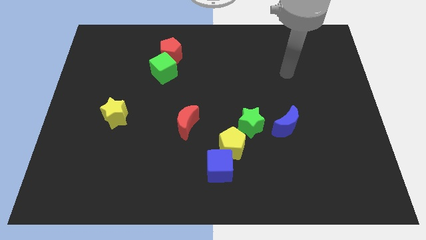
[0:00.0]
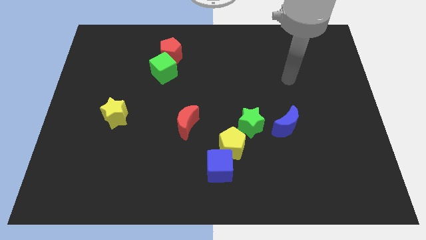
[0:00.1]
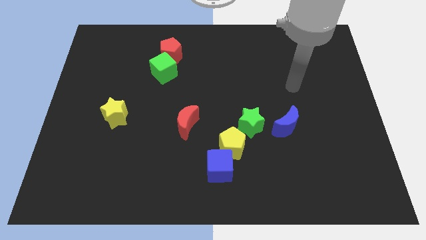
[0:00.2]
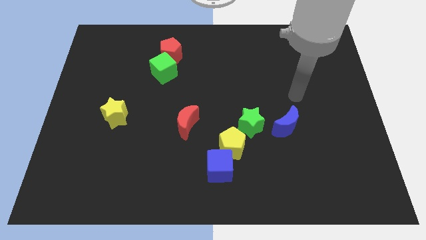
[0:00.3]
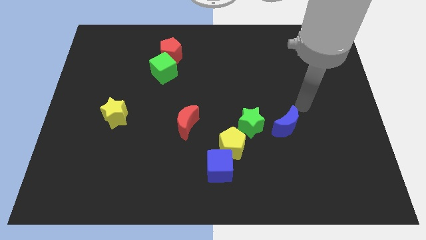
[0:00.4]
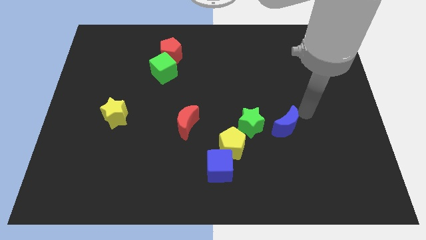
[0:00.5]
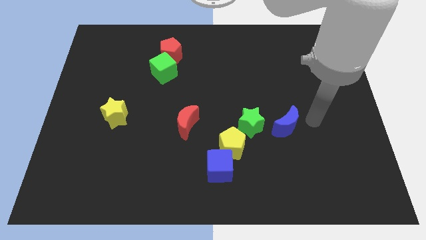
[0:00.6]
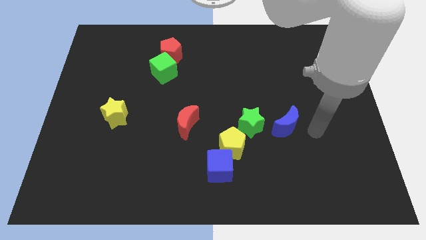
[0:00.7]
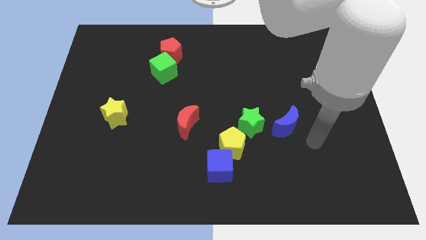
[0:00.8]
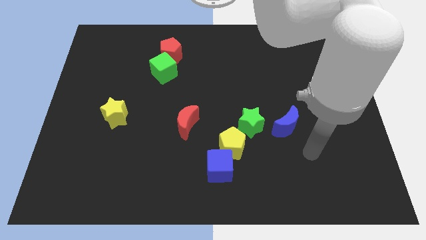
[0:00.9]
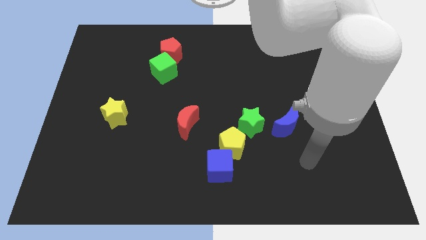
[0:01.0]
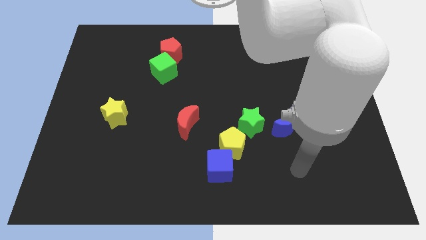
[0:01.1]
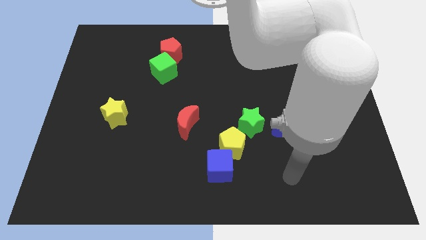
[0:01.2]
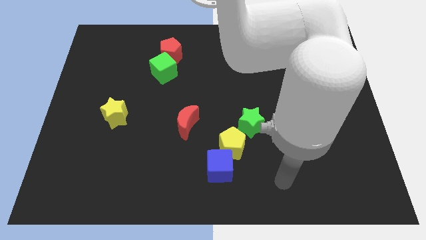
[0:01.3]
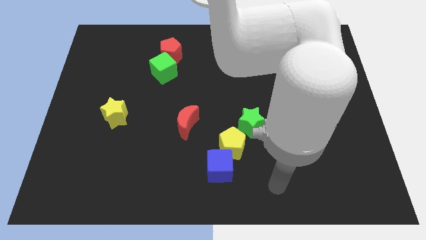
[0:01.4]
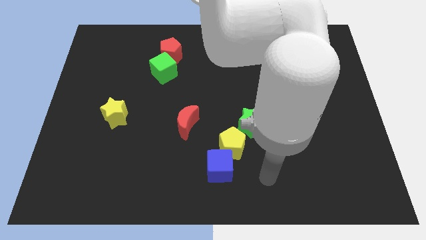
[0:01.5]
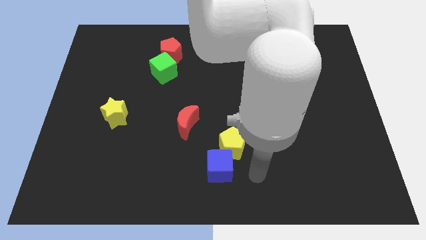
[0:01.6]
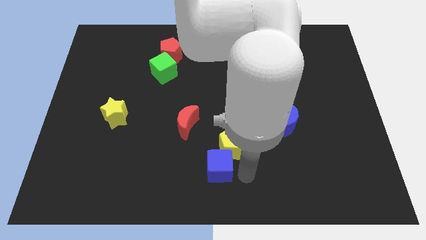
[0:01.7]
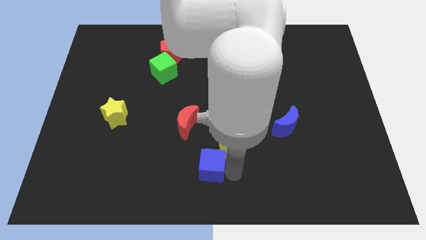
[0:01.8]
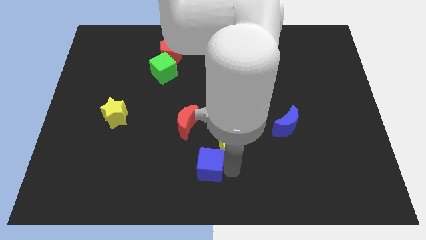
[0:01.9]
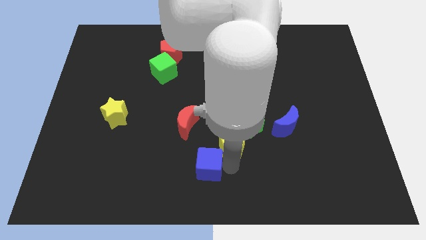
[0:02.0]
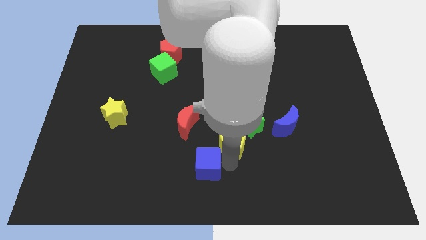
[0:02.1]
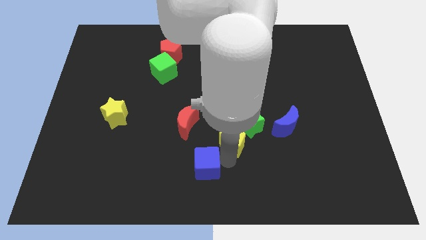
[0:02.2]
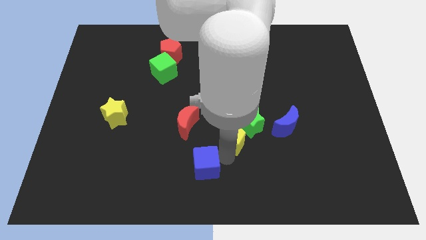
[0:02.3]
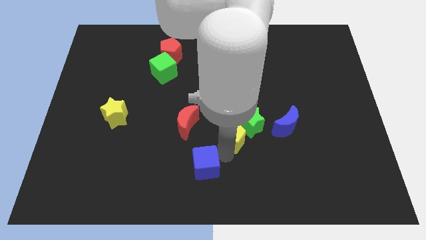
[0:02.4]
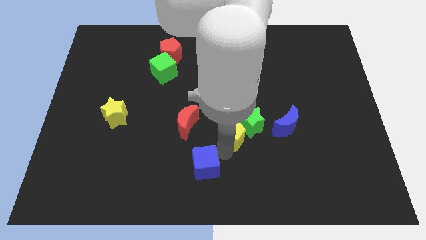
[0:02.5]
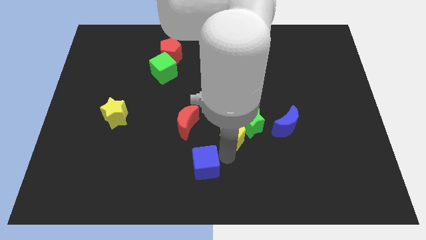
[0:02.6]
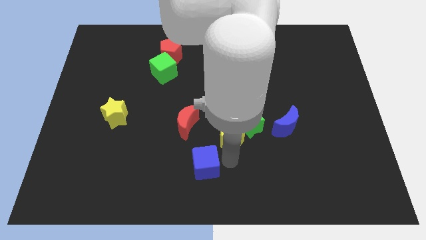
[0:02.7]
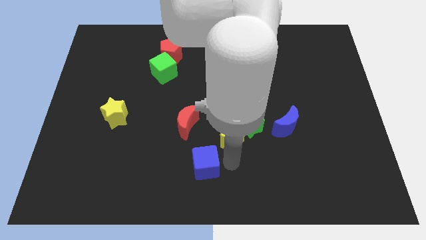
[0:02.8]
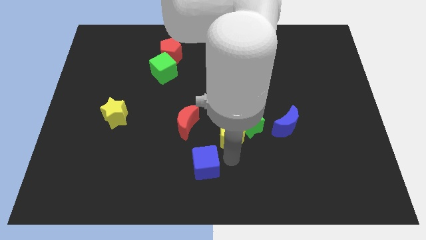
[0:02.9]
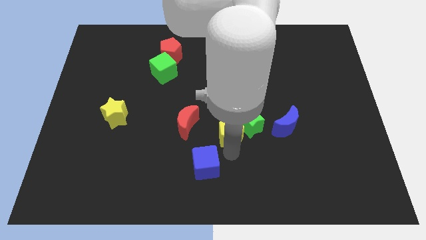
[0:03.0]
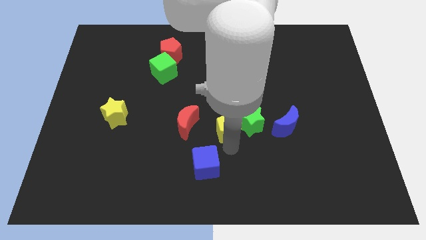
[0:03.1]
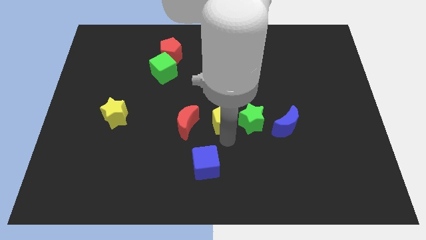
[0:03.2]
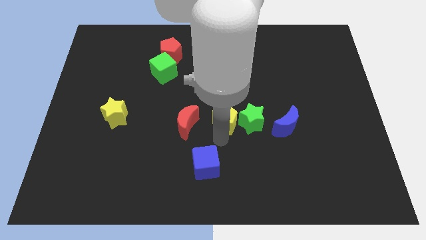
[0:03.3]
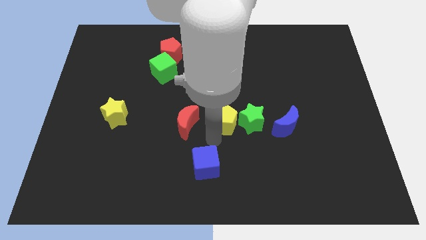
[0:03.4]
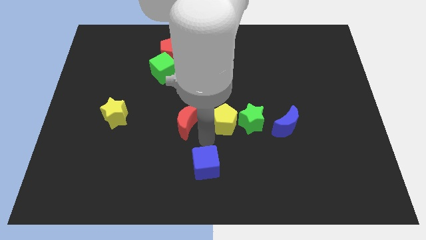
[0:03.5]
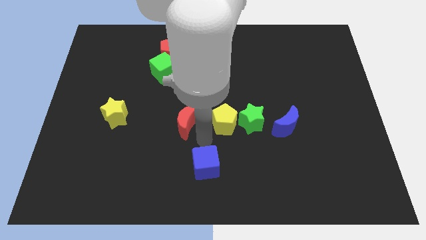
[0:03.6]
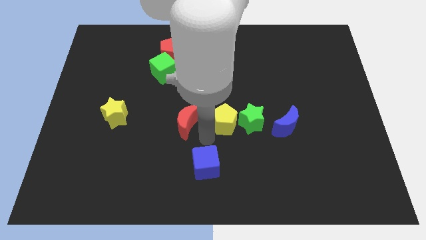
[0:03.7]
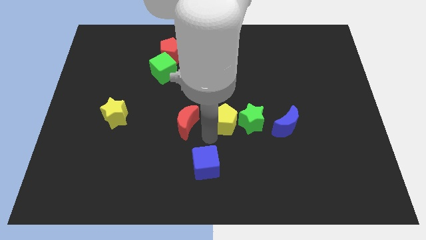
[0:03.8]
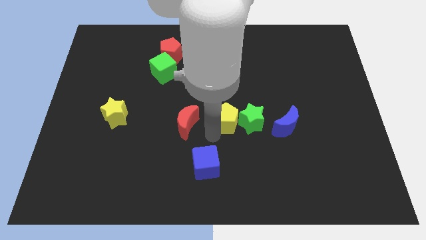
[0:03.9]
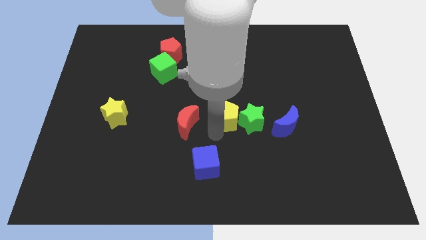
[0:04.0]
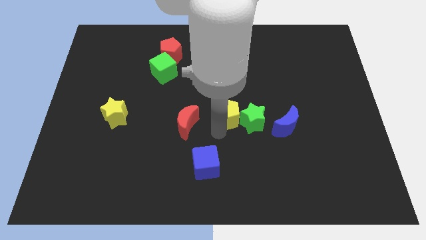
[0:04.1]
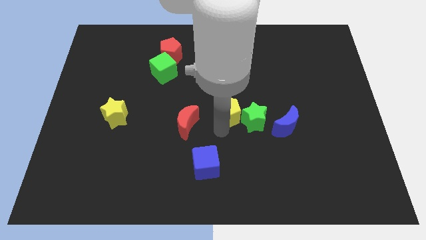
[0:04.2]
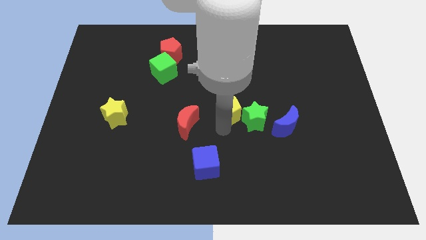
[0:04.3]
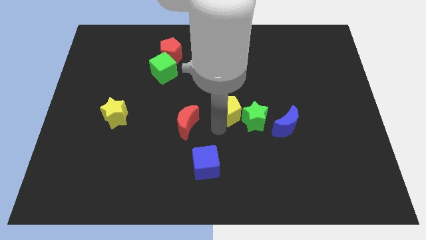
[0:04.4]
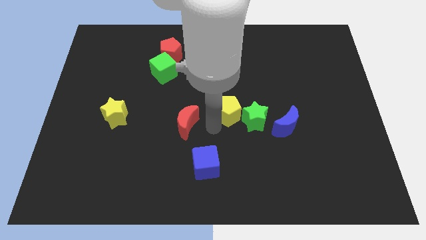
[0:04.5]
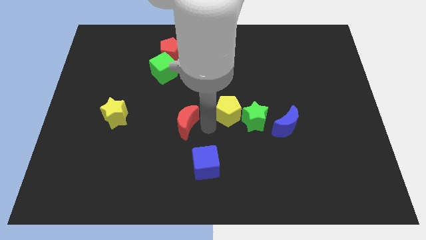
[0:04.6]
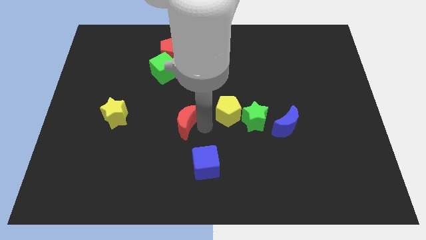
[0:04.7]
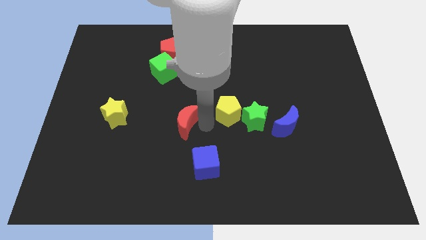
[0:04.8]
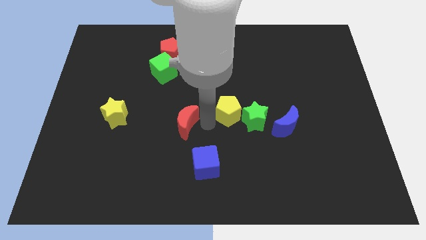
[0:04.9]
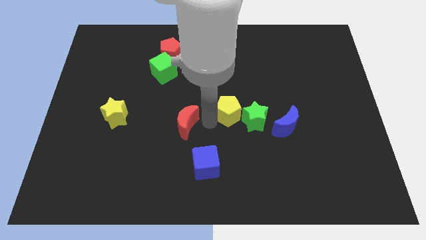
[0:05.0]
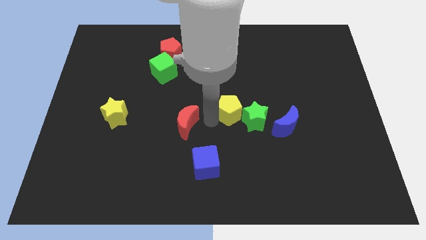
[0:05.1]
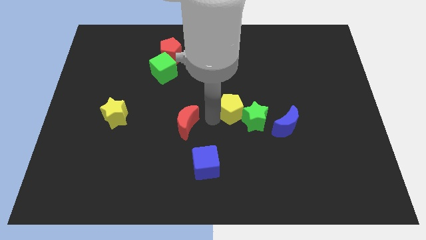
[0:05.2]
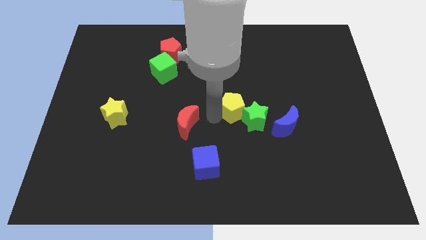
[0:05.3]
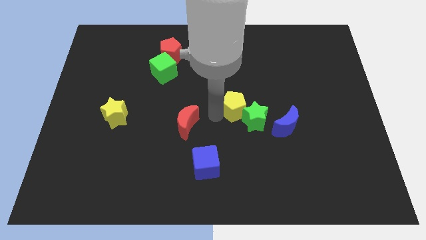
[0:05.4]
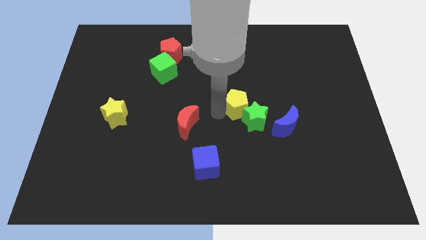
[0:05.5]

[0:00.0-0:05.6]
slide the yellow pentagon a little bit upwards and right diagonally

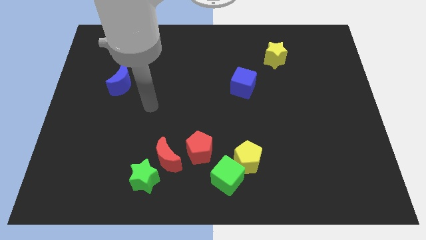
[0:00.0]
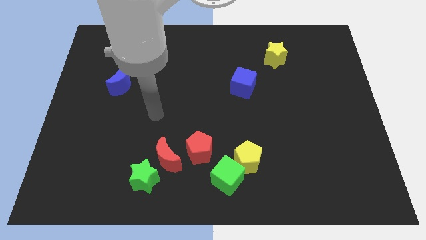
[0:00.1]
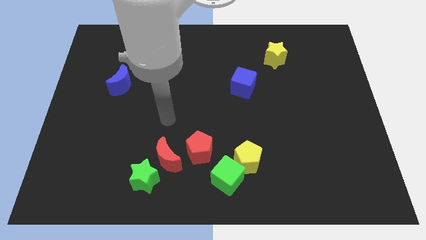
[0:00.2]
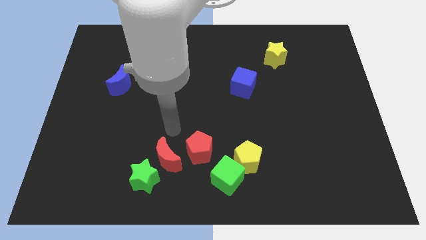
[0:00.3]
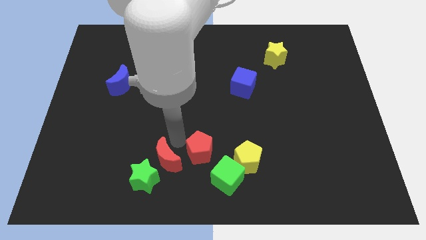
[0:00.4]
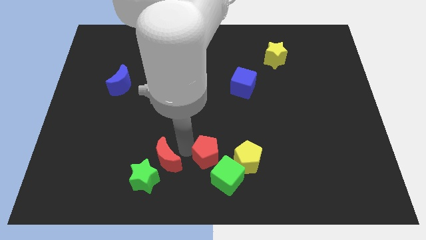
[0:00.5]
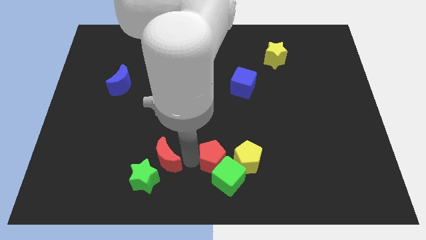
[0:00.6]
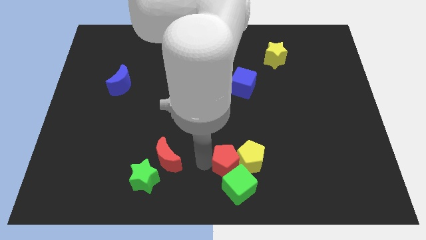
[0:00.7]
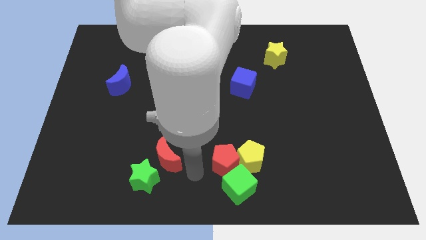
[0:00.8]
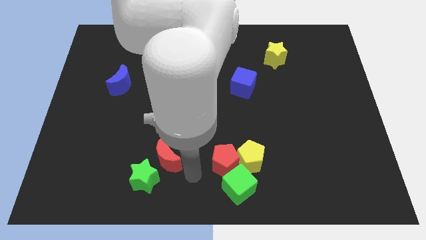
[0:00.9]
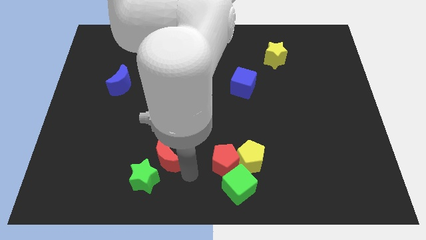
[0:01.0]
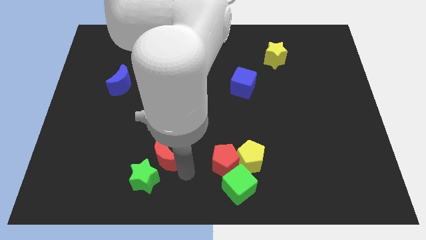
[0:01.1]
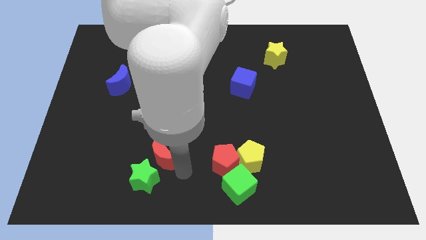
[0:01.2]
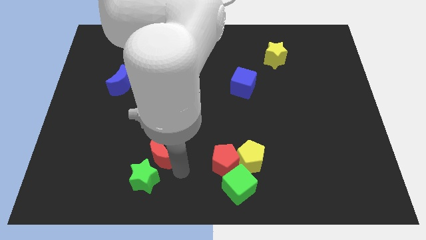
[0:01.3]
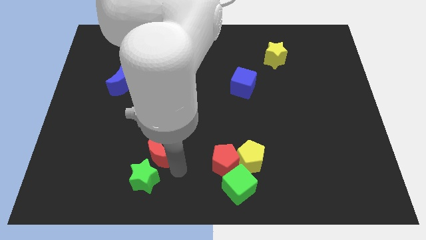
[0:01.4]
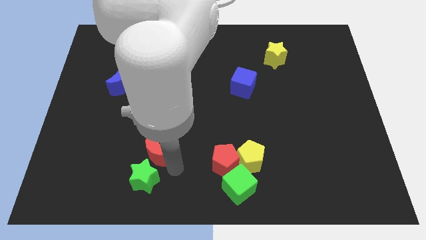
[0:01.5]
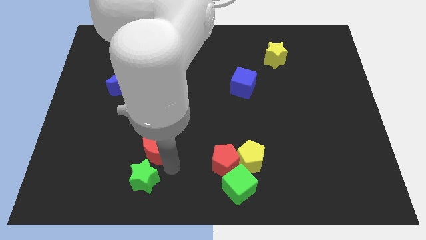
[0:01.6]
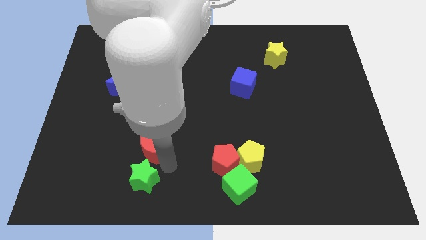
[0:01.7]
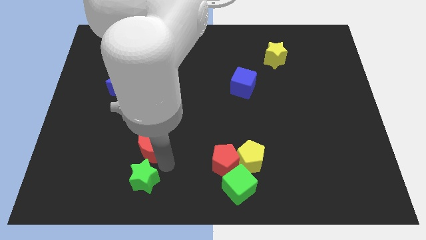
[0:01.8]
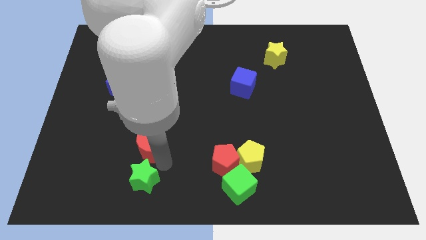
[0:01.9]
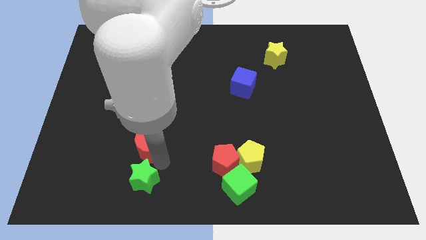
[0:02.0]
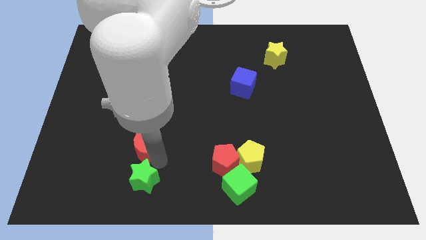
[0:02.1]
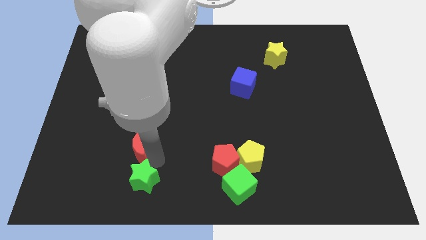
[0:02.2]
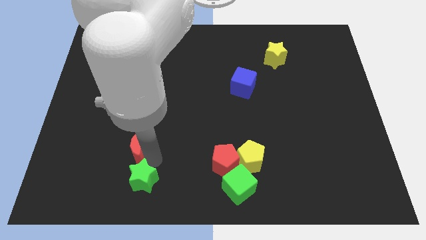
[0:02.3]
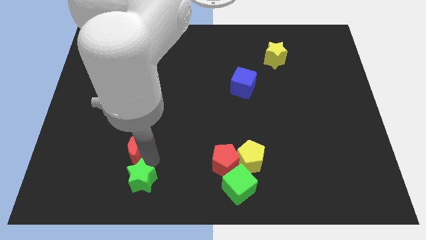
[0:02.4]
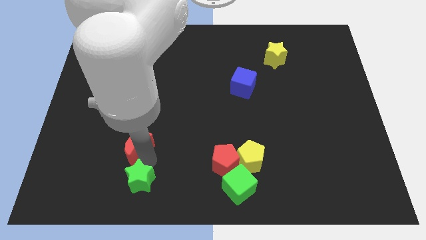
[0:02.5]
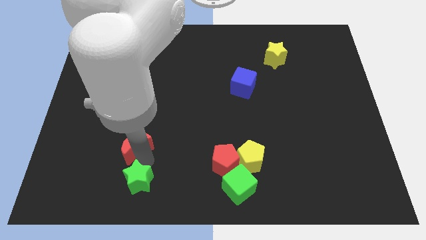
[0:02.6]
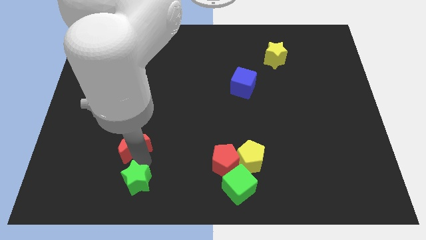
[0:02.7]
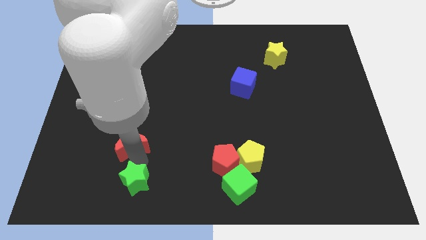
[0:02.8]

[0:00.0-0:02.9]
slide the red moon diagonally upwards and to the left slightly
